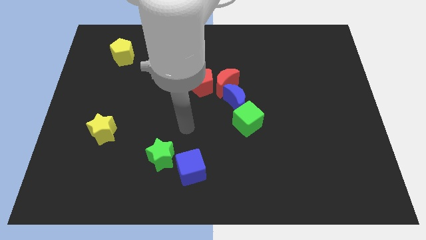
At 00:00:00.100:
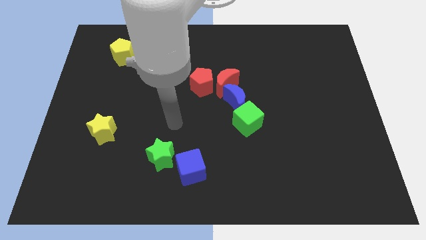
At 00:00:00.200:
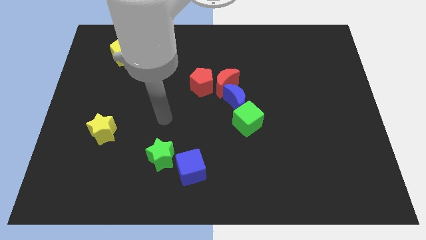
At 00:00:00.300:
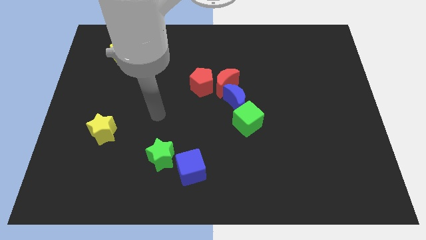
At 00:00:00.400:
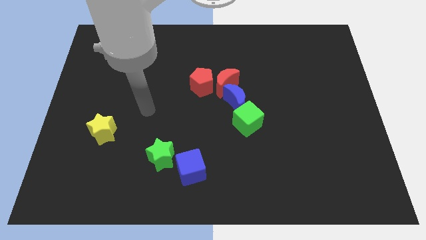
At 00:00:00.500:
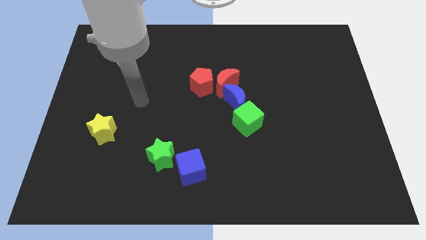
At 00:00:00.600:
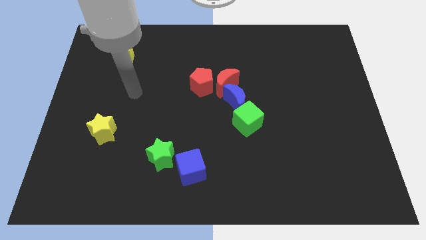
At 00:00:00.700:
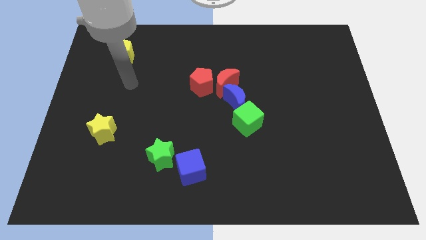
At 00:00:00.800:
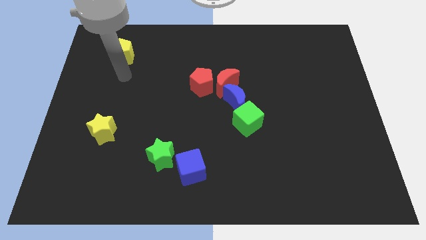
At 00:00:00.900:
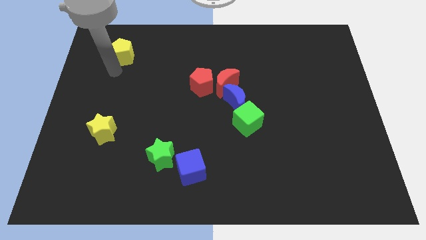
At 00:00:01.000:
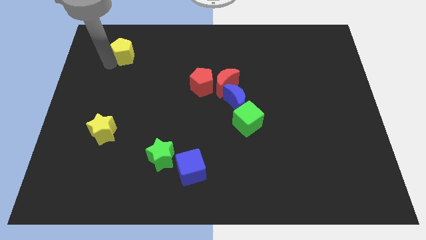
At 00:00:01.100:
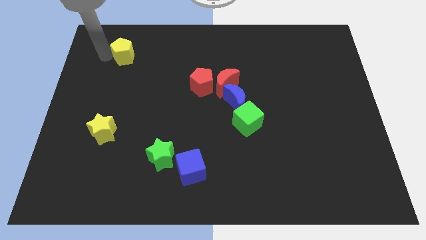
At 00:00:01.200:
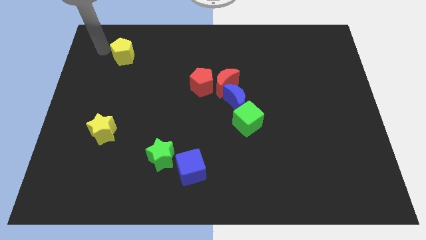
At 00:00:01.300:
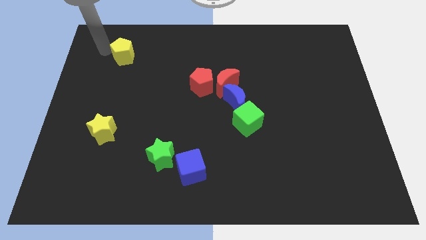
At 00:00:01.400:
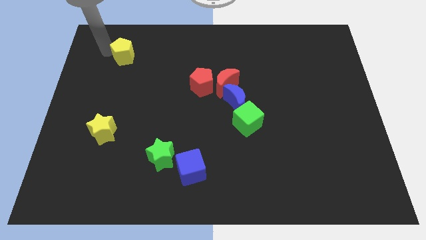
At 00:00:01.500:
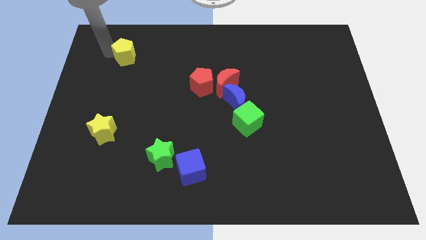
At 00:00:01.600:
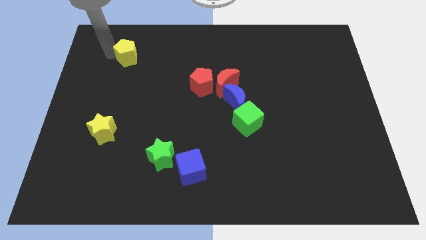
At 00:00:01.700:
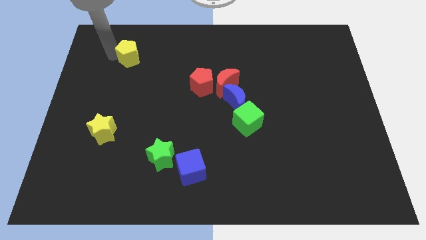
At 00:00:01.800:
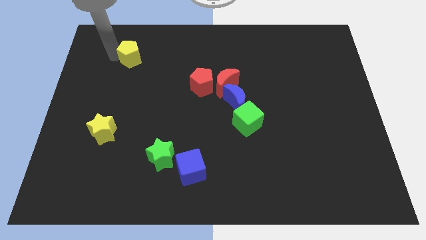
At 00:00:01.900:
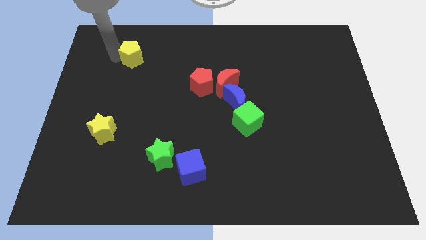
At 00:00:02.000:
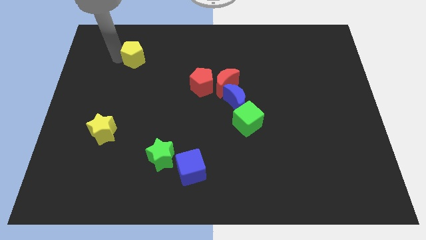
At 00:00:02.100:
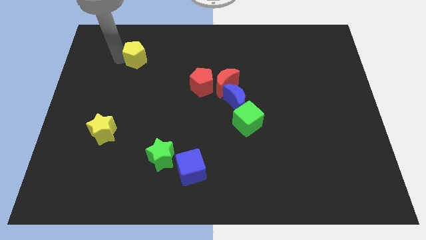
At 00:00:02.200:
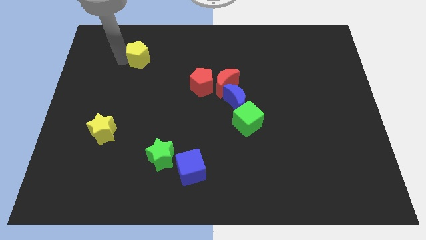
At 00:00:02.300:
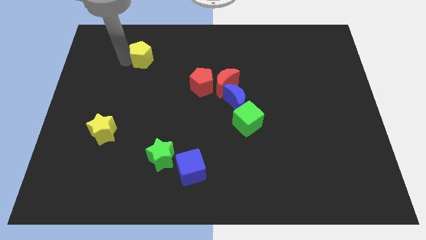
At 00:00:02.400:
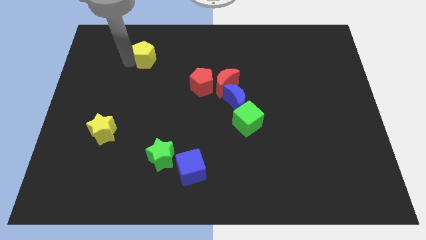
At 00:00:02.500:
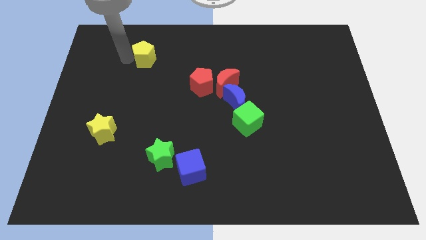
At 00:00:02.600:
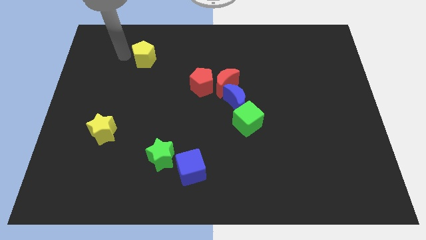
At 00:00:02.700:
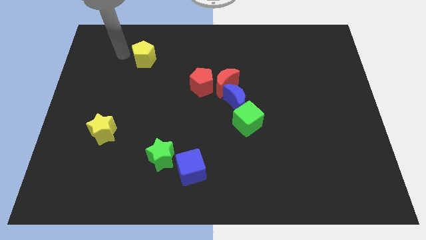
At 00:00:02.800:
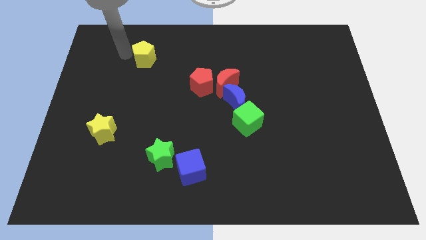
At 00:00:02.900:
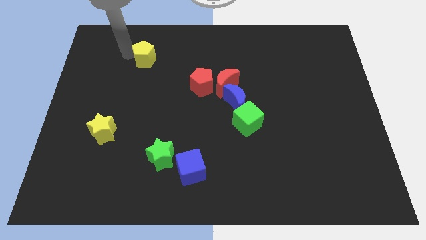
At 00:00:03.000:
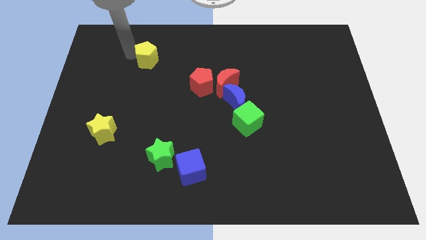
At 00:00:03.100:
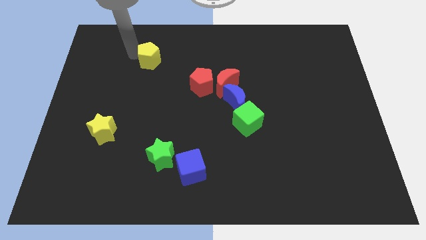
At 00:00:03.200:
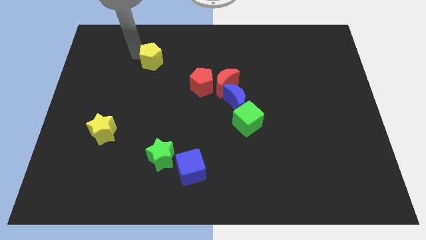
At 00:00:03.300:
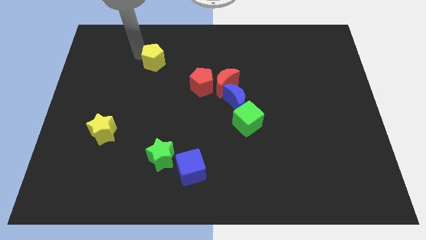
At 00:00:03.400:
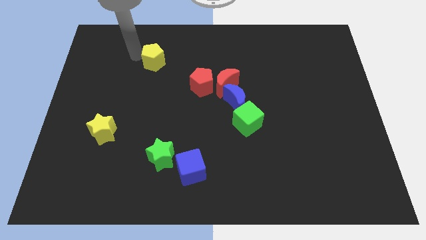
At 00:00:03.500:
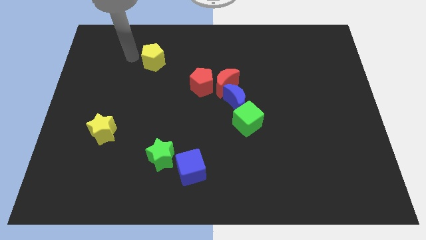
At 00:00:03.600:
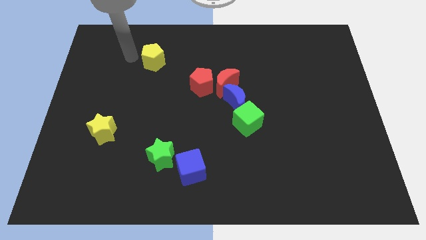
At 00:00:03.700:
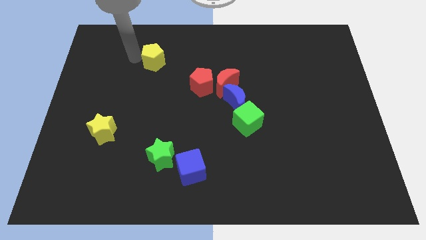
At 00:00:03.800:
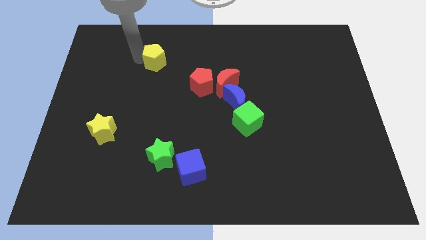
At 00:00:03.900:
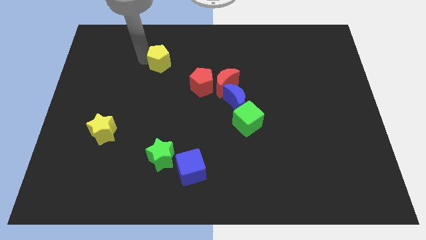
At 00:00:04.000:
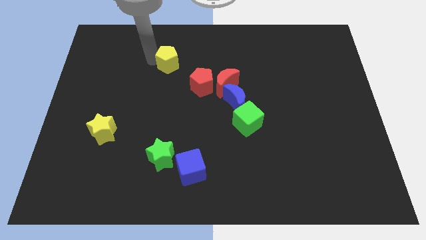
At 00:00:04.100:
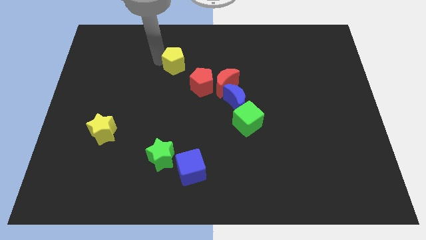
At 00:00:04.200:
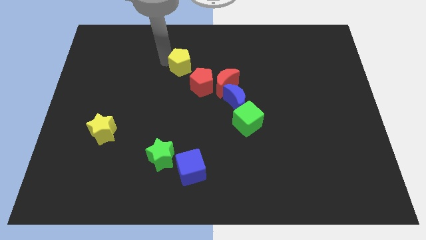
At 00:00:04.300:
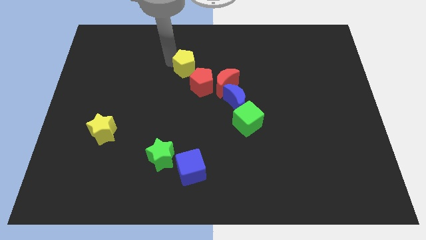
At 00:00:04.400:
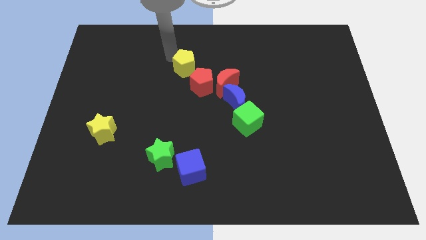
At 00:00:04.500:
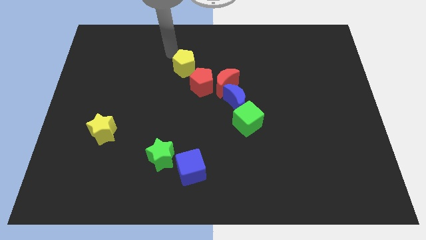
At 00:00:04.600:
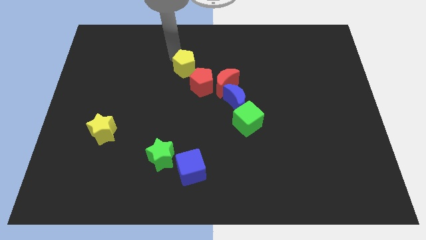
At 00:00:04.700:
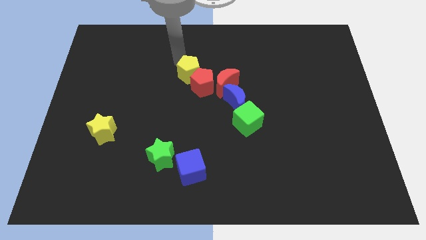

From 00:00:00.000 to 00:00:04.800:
put the yellow pentagon close to the red pentagon

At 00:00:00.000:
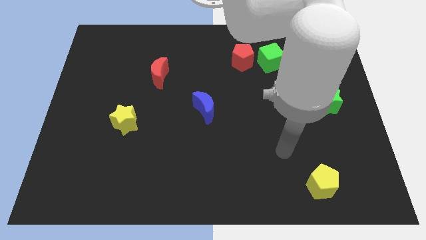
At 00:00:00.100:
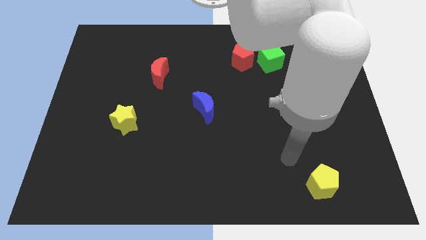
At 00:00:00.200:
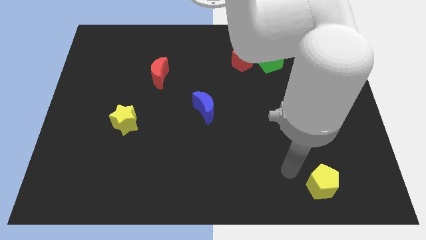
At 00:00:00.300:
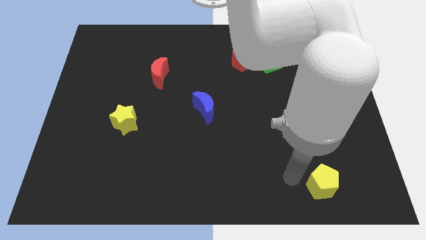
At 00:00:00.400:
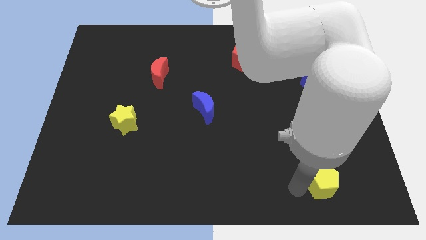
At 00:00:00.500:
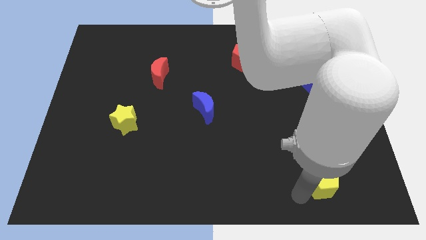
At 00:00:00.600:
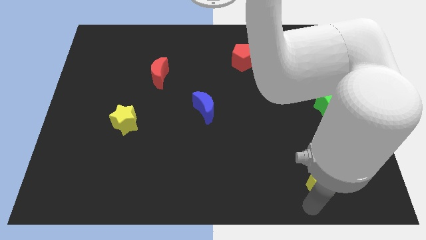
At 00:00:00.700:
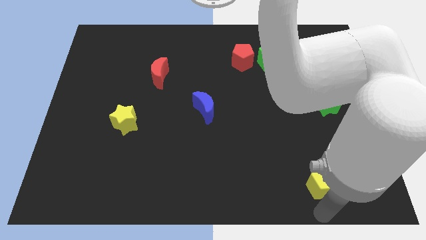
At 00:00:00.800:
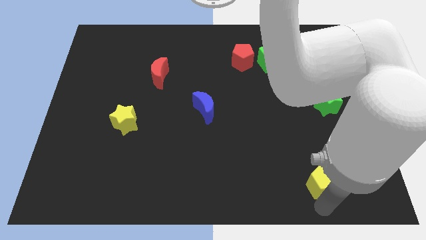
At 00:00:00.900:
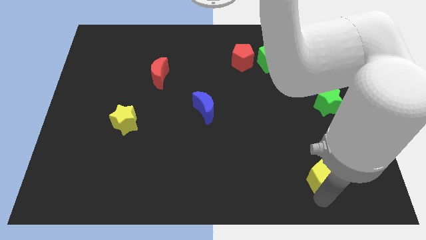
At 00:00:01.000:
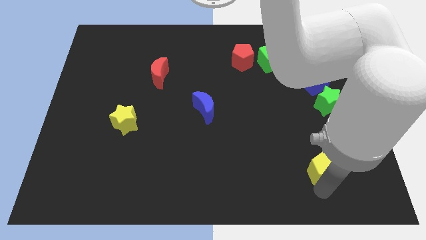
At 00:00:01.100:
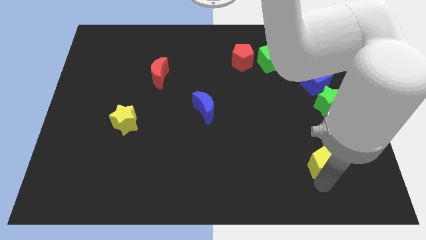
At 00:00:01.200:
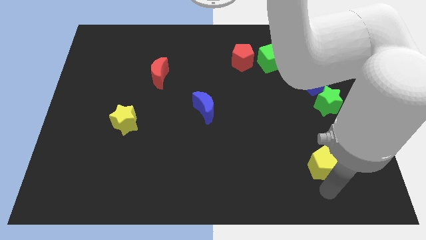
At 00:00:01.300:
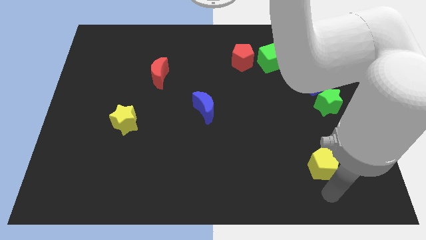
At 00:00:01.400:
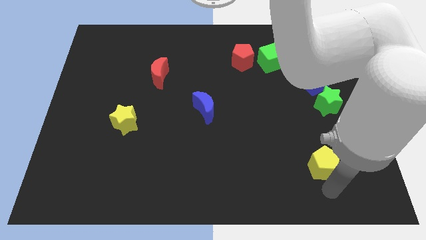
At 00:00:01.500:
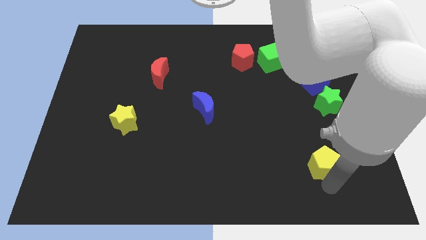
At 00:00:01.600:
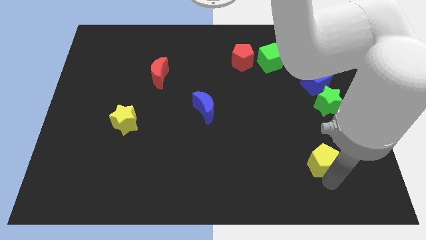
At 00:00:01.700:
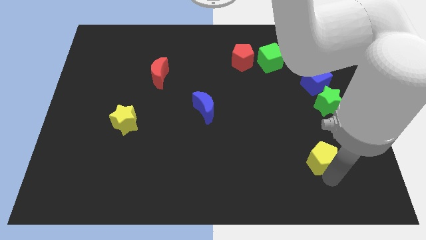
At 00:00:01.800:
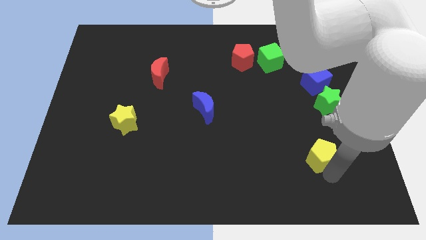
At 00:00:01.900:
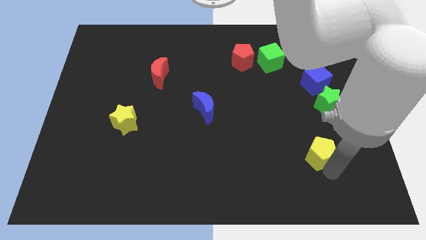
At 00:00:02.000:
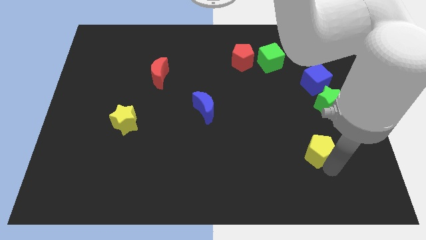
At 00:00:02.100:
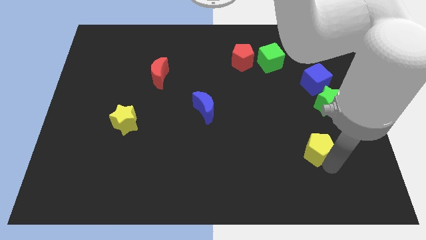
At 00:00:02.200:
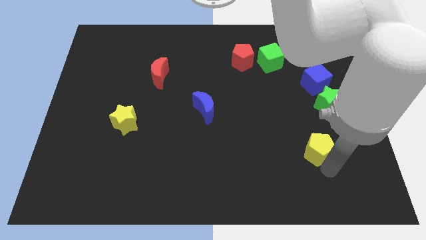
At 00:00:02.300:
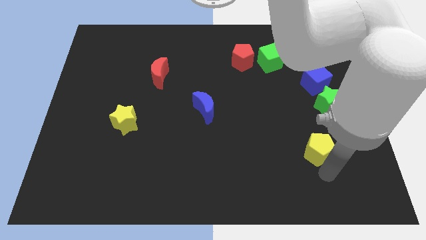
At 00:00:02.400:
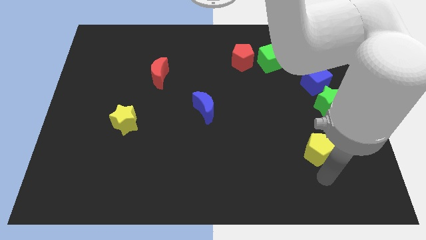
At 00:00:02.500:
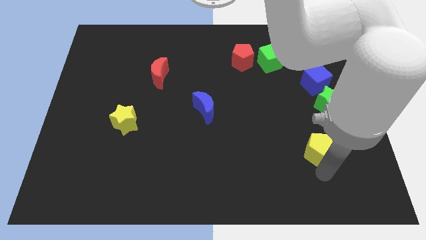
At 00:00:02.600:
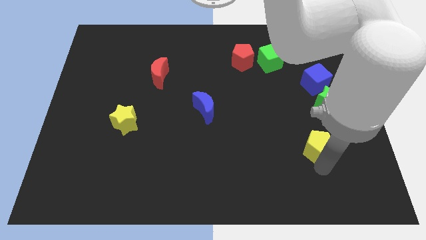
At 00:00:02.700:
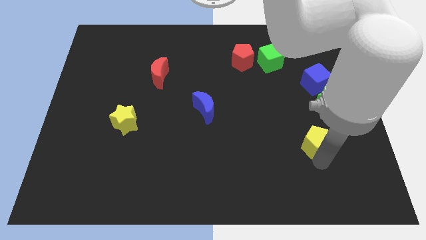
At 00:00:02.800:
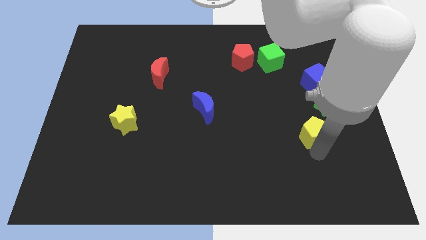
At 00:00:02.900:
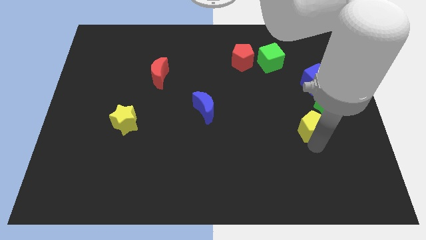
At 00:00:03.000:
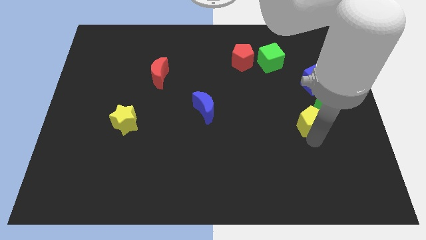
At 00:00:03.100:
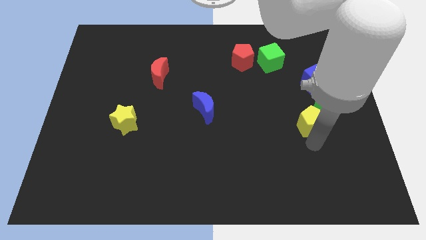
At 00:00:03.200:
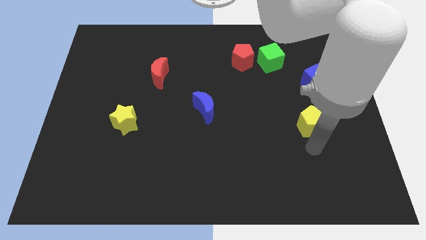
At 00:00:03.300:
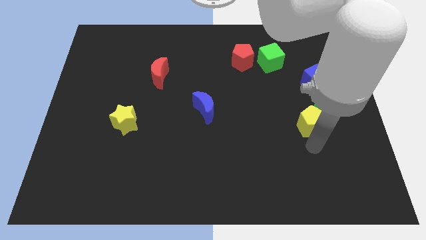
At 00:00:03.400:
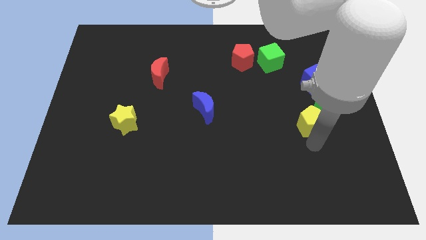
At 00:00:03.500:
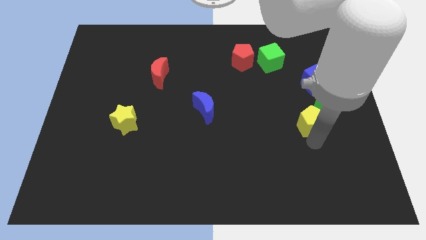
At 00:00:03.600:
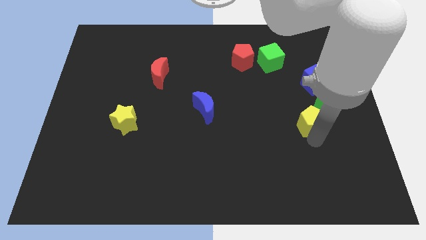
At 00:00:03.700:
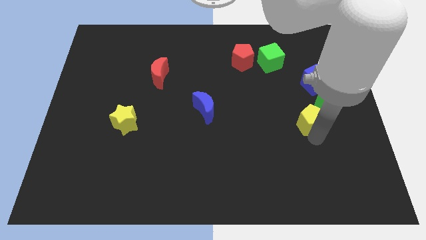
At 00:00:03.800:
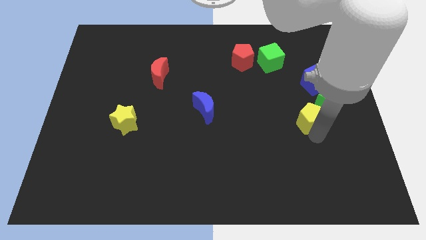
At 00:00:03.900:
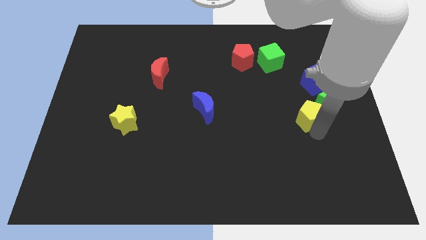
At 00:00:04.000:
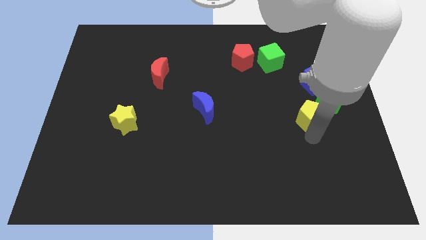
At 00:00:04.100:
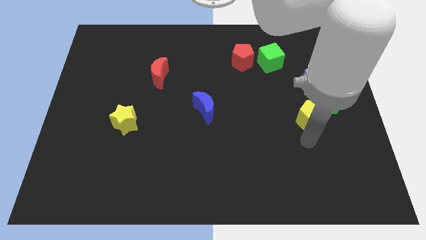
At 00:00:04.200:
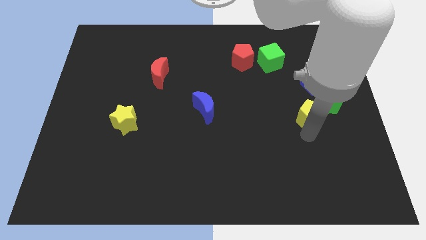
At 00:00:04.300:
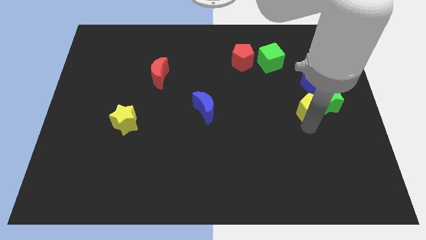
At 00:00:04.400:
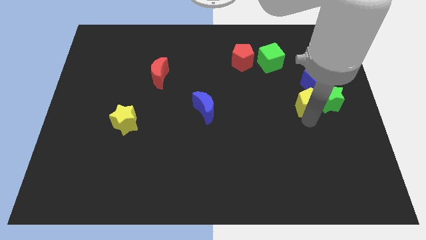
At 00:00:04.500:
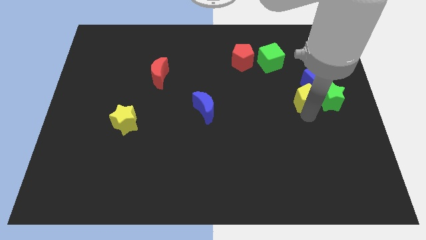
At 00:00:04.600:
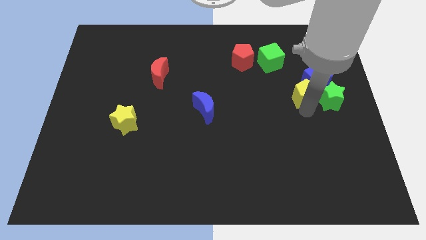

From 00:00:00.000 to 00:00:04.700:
push the yellow pentagon towards the blue cube
